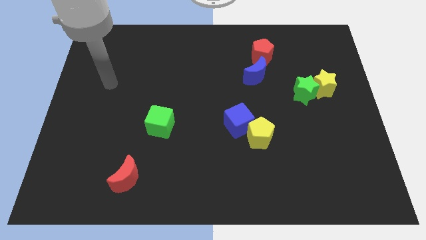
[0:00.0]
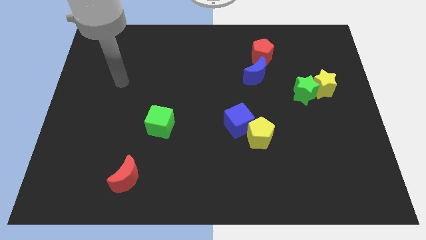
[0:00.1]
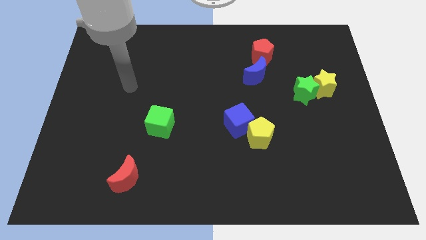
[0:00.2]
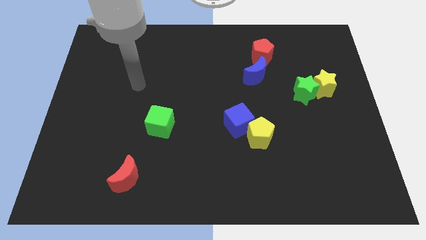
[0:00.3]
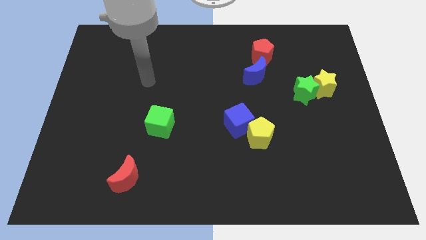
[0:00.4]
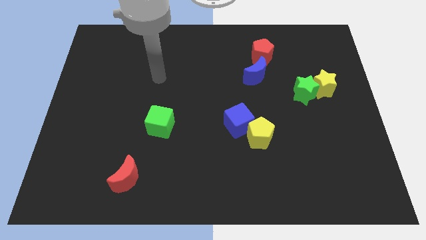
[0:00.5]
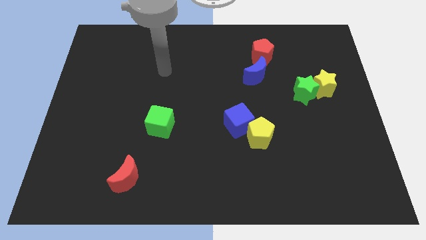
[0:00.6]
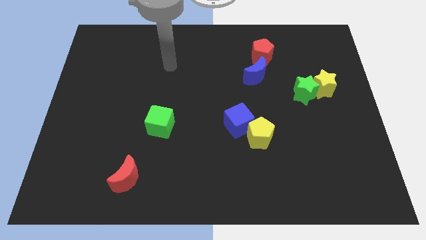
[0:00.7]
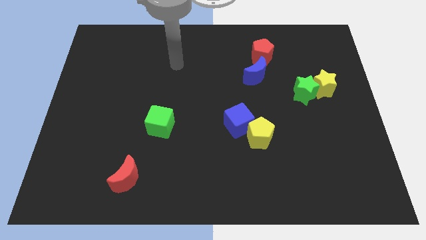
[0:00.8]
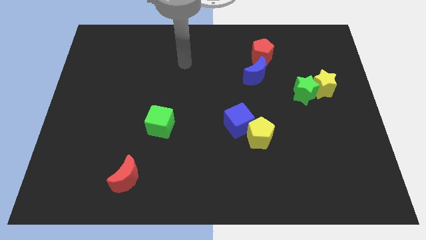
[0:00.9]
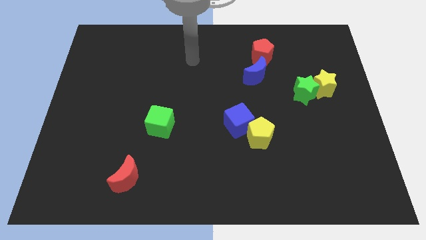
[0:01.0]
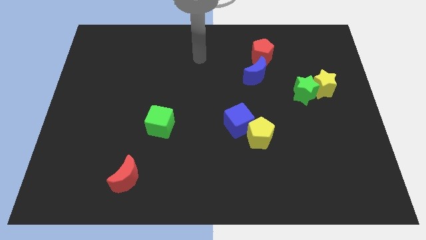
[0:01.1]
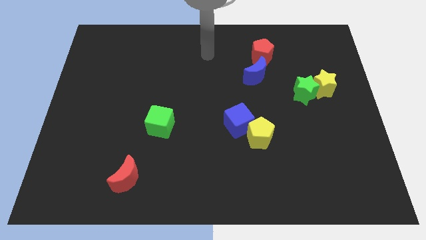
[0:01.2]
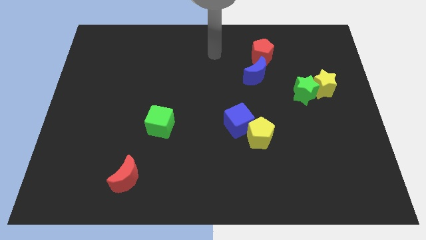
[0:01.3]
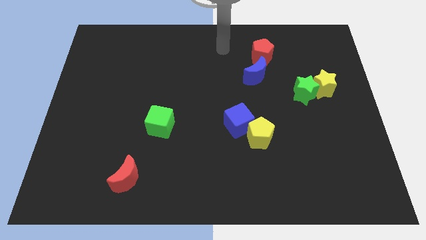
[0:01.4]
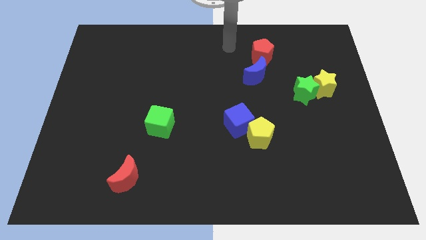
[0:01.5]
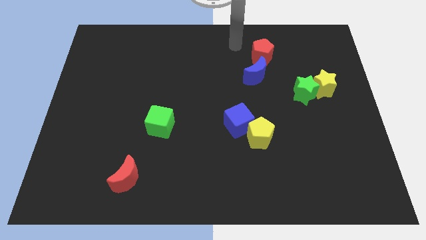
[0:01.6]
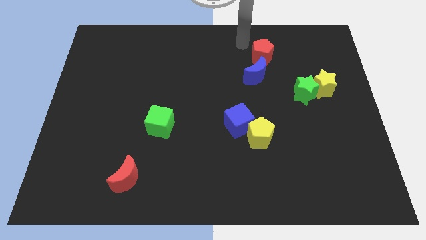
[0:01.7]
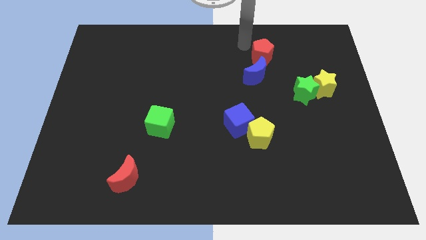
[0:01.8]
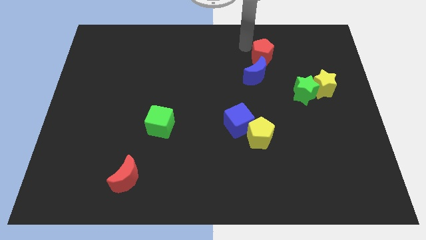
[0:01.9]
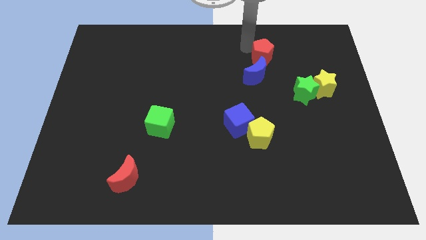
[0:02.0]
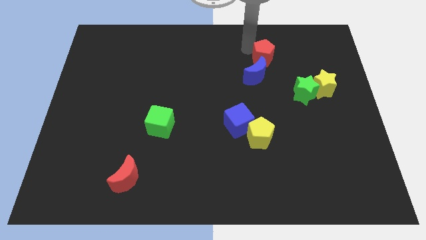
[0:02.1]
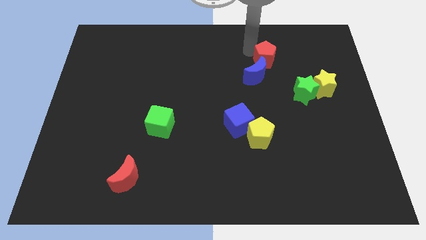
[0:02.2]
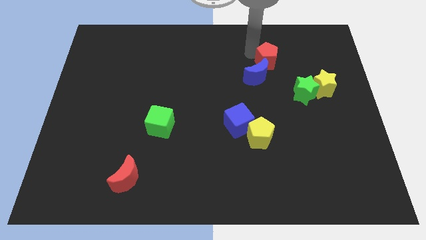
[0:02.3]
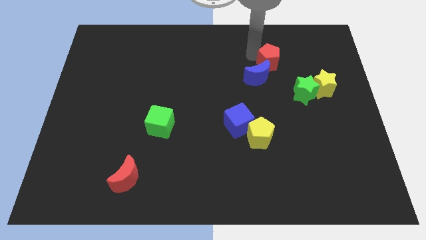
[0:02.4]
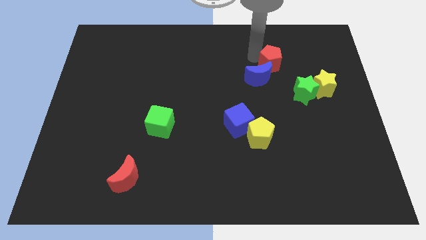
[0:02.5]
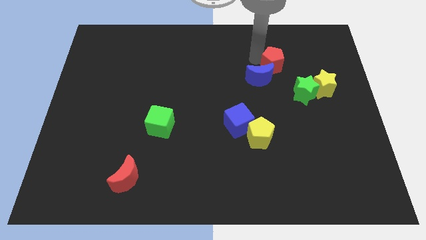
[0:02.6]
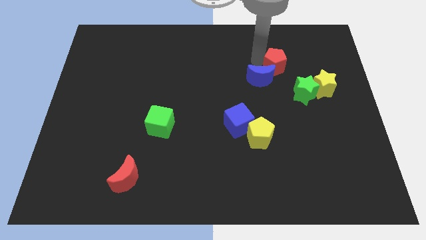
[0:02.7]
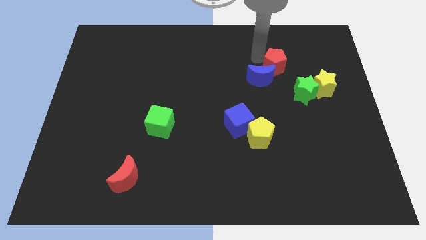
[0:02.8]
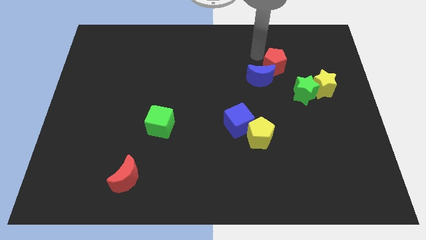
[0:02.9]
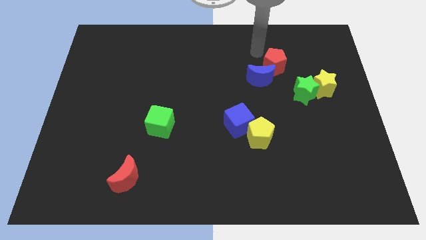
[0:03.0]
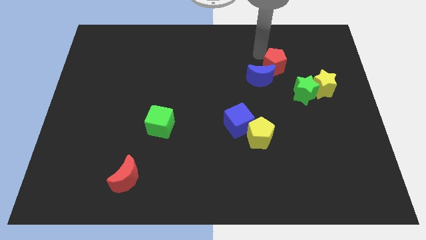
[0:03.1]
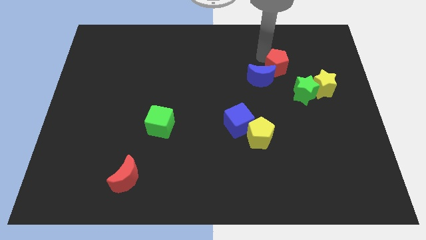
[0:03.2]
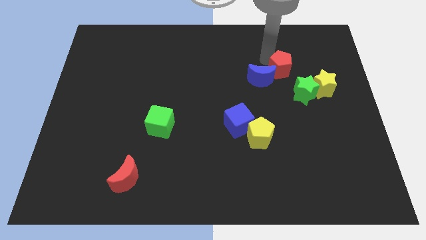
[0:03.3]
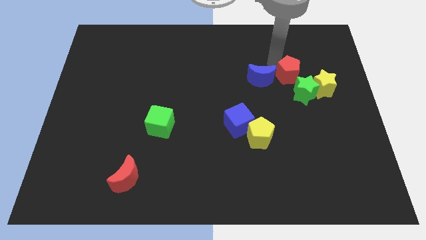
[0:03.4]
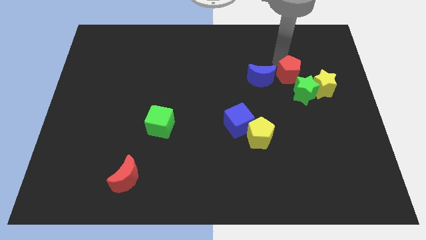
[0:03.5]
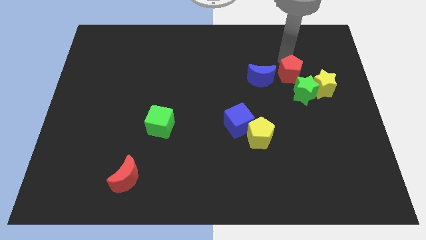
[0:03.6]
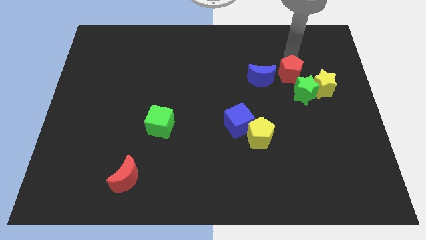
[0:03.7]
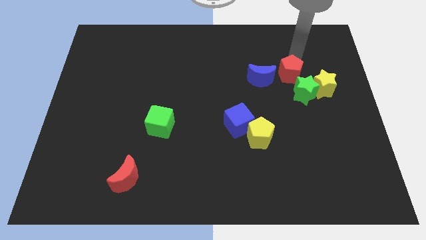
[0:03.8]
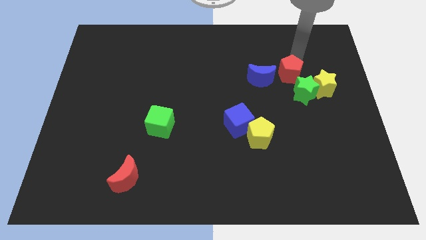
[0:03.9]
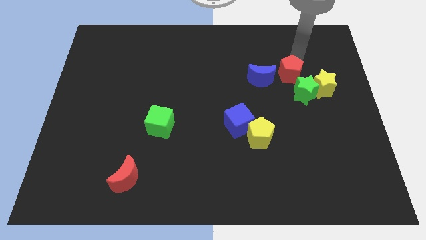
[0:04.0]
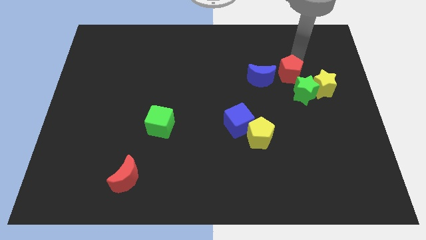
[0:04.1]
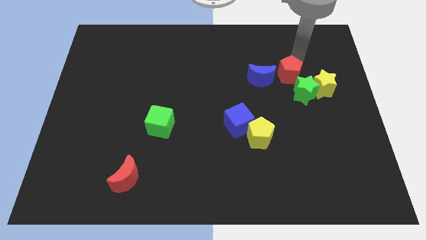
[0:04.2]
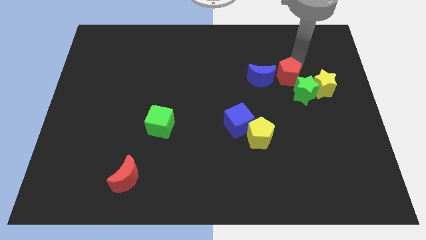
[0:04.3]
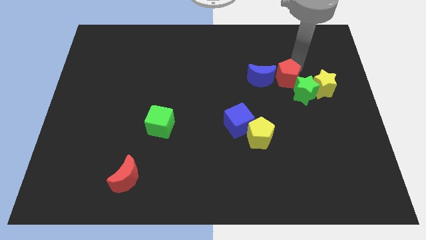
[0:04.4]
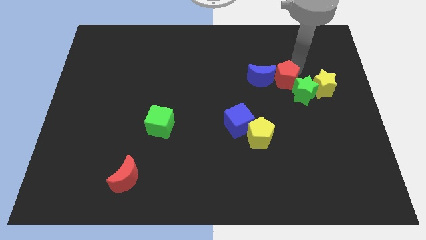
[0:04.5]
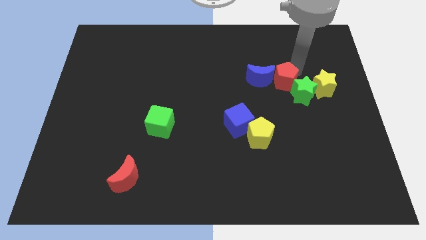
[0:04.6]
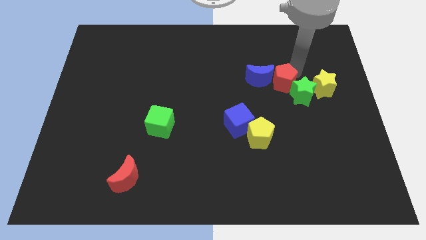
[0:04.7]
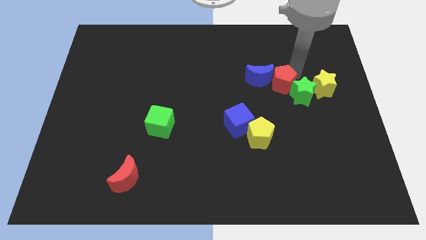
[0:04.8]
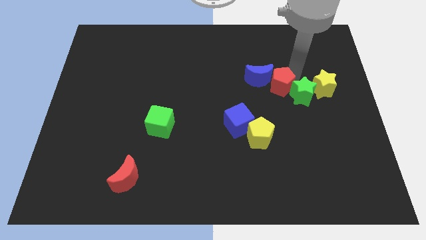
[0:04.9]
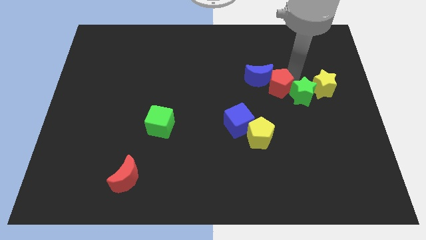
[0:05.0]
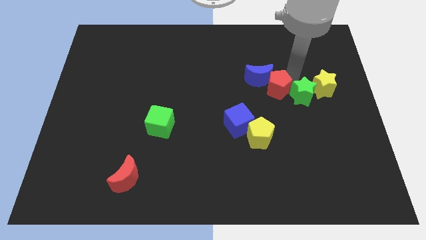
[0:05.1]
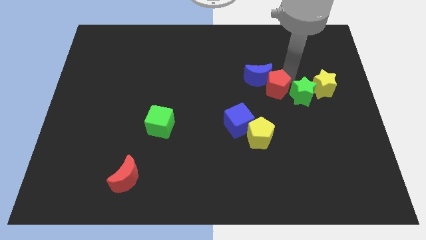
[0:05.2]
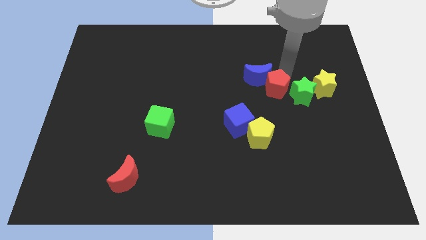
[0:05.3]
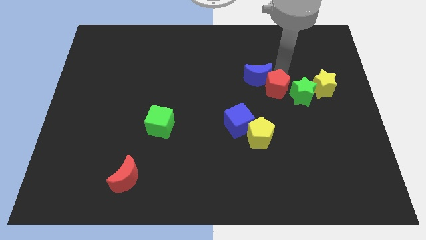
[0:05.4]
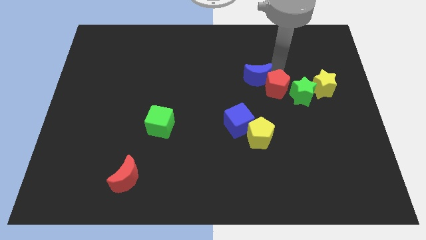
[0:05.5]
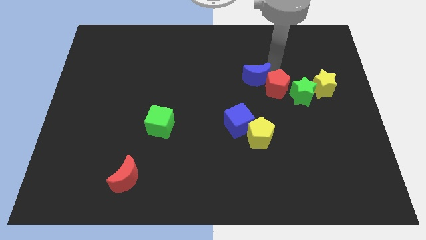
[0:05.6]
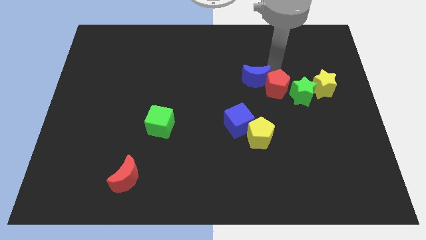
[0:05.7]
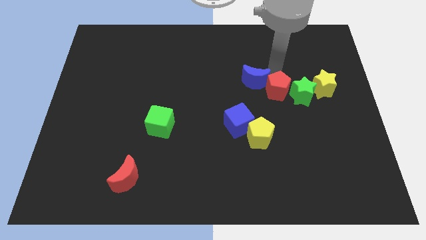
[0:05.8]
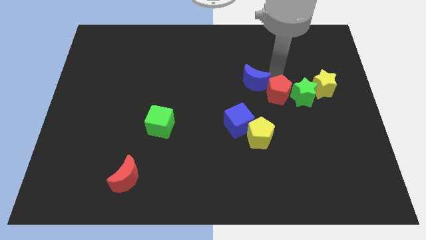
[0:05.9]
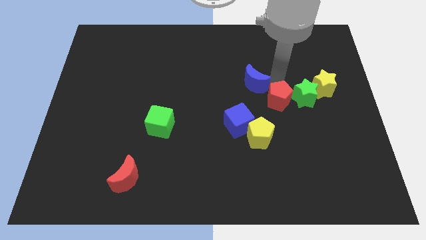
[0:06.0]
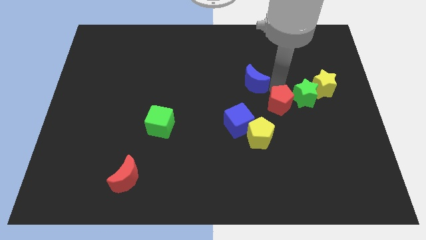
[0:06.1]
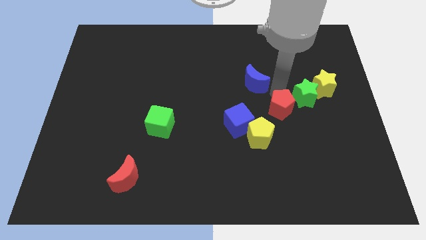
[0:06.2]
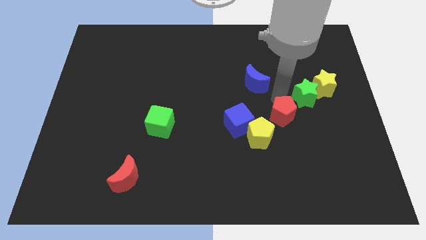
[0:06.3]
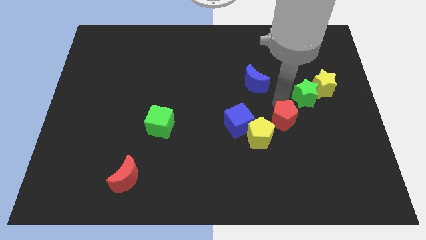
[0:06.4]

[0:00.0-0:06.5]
move the red pentagon down

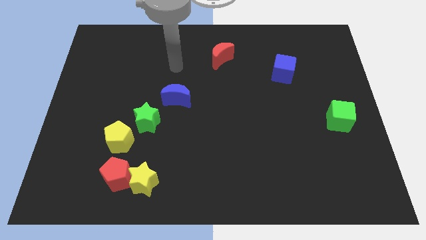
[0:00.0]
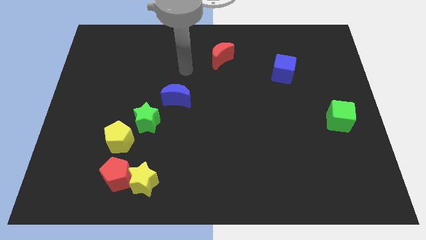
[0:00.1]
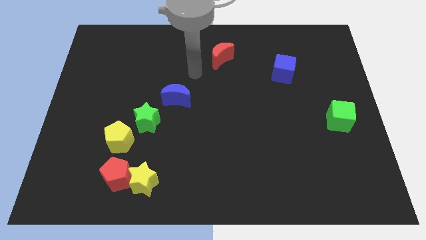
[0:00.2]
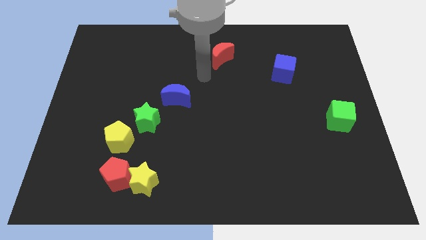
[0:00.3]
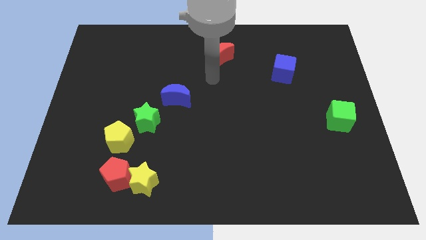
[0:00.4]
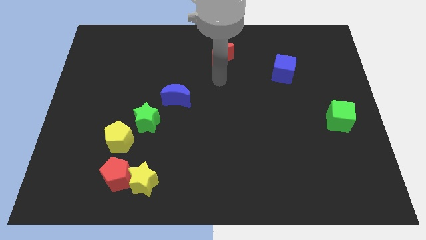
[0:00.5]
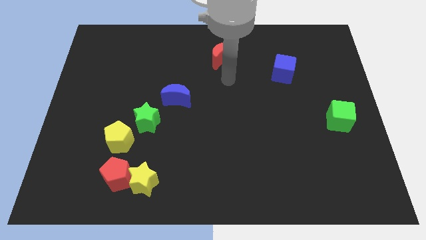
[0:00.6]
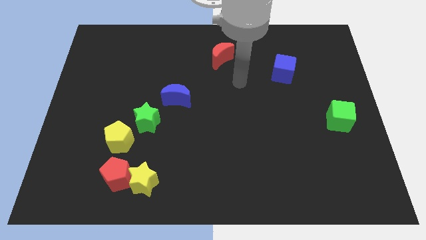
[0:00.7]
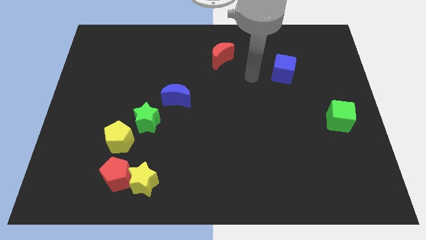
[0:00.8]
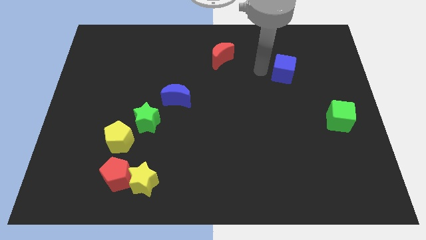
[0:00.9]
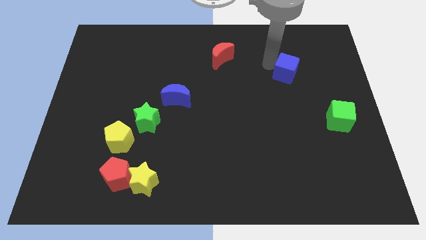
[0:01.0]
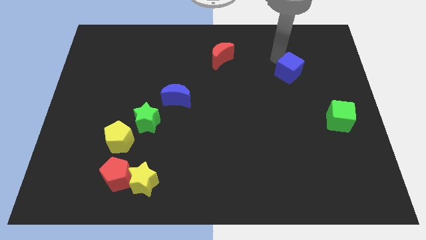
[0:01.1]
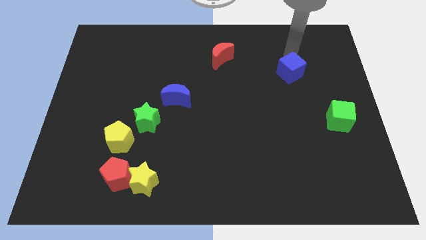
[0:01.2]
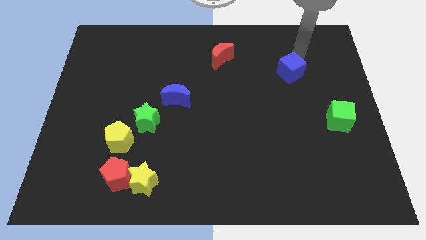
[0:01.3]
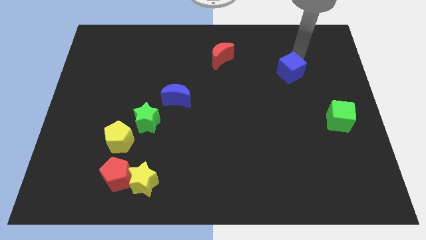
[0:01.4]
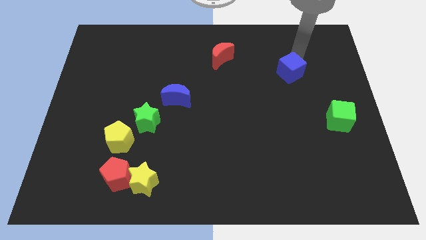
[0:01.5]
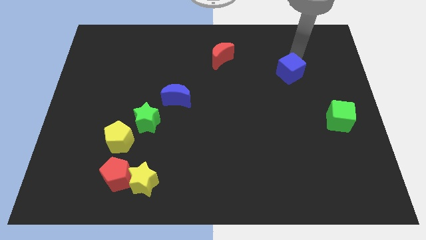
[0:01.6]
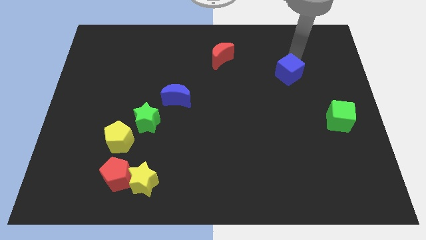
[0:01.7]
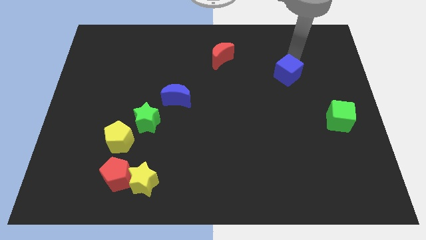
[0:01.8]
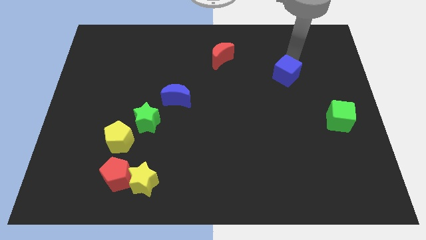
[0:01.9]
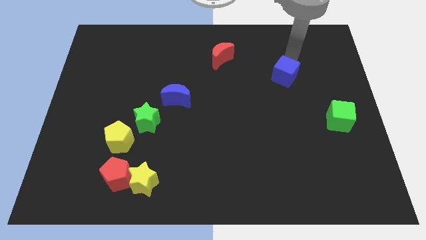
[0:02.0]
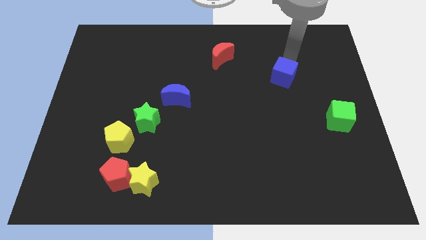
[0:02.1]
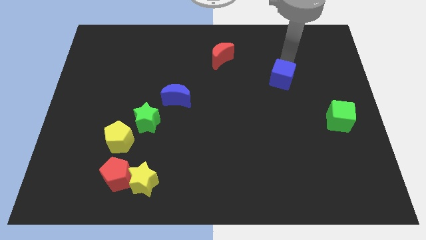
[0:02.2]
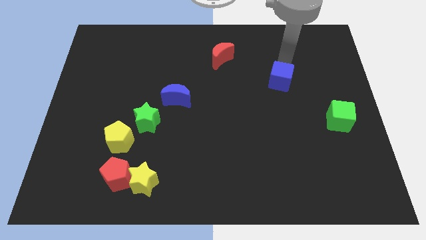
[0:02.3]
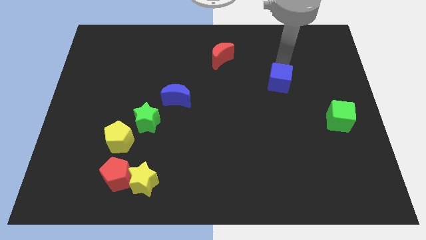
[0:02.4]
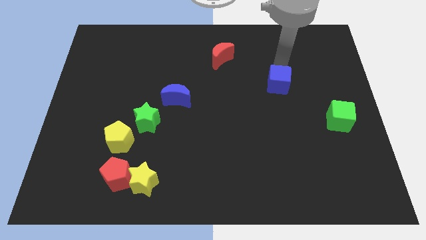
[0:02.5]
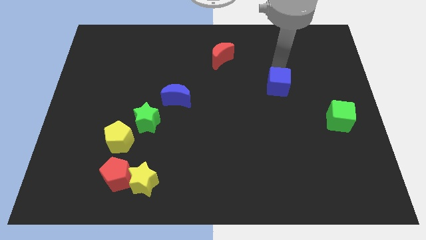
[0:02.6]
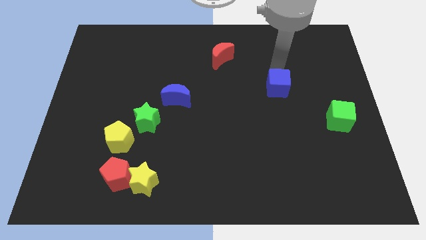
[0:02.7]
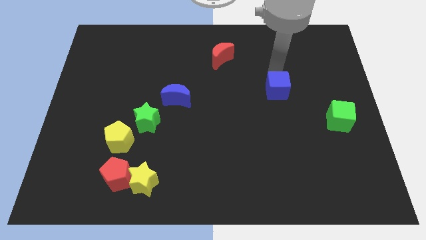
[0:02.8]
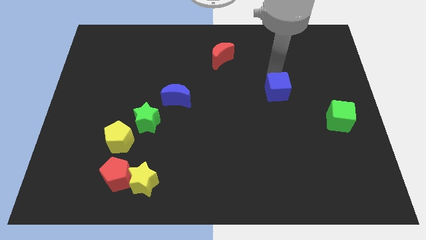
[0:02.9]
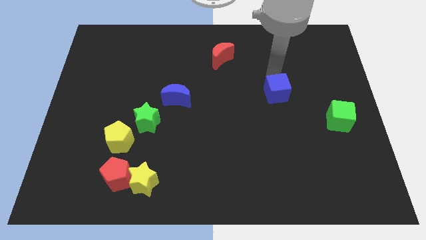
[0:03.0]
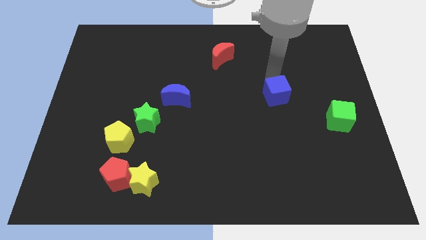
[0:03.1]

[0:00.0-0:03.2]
slightly push the blue cube downwards
